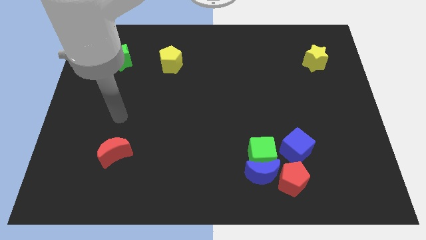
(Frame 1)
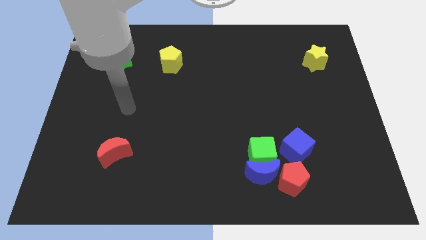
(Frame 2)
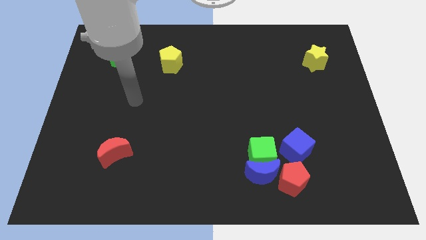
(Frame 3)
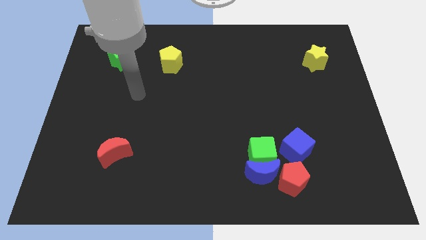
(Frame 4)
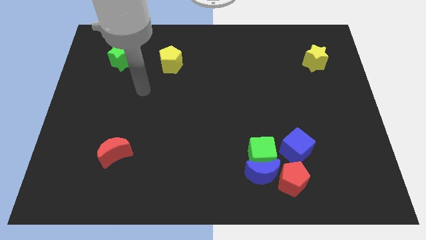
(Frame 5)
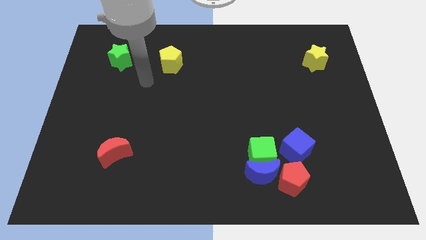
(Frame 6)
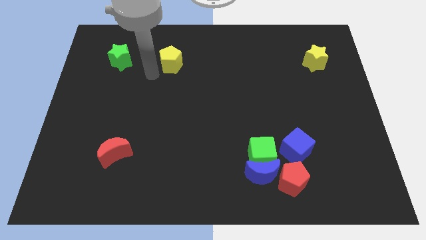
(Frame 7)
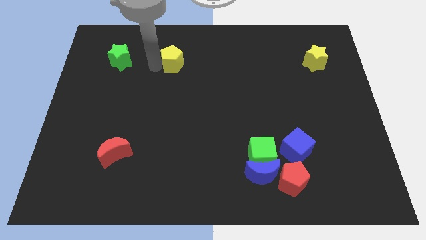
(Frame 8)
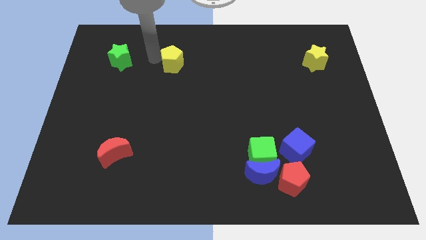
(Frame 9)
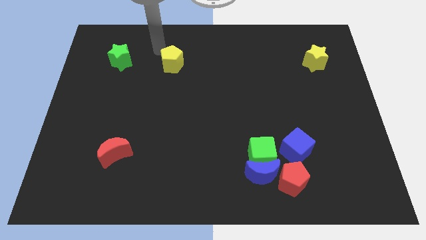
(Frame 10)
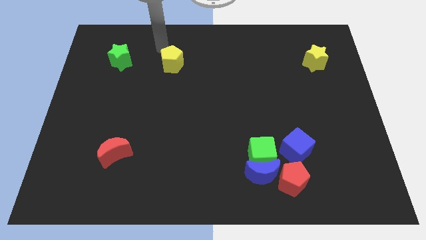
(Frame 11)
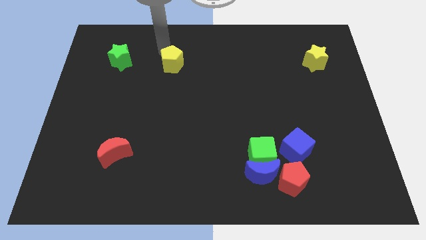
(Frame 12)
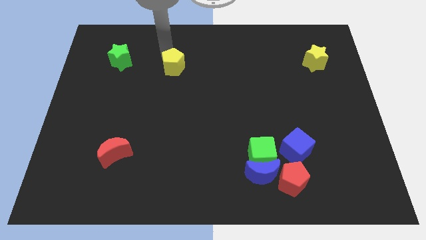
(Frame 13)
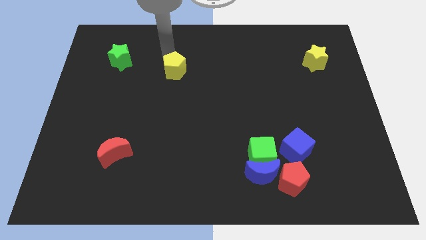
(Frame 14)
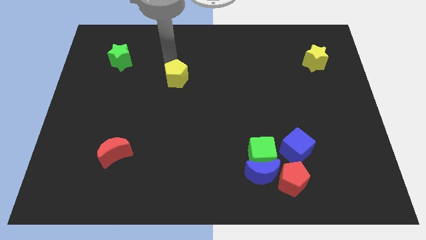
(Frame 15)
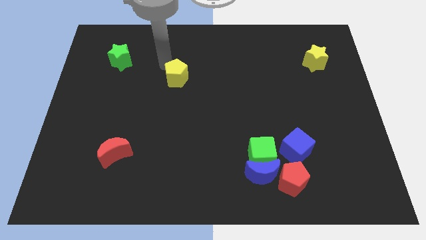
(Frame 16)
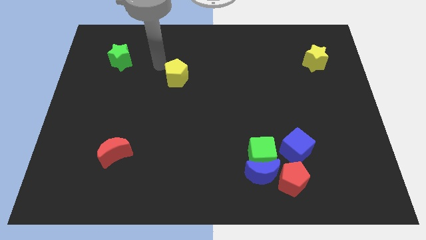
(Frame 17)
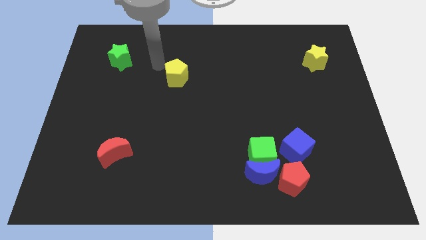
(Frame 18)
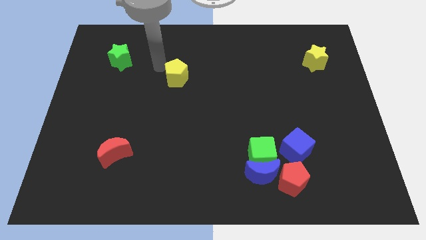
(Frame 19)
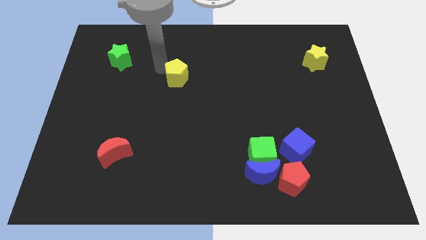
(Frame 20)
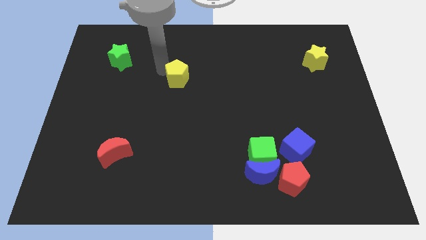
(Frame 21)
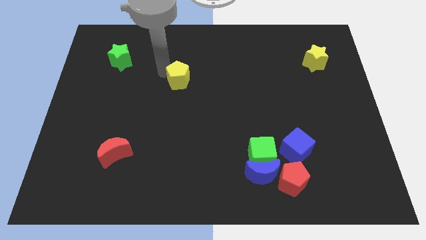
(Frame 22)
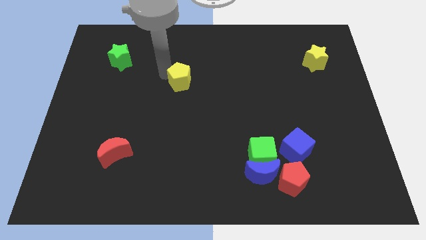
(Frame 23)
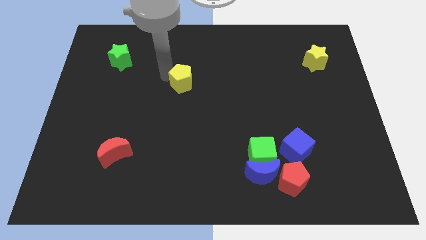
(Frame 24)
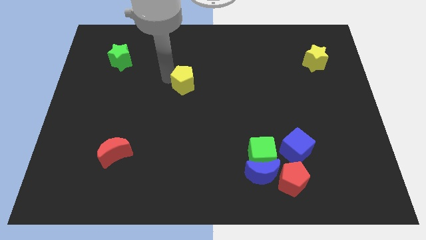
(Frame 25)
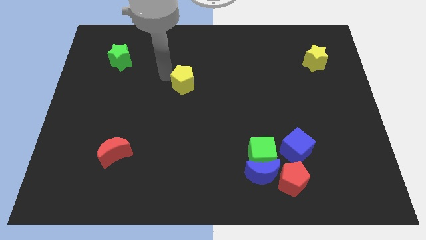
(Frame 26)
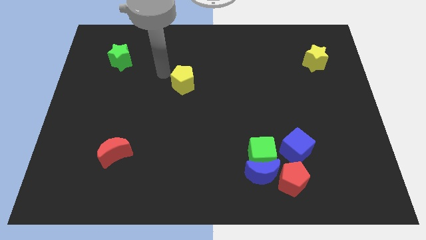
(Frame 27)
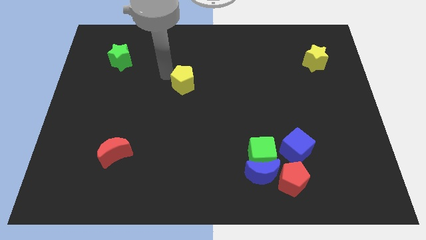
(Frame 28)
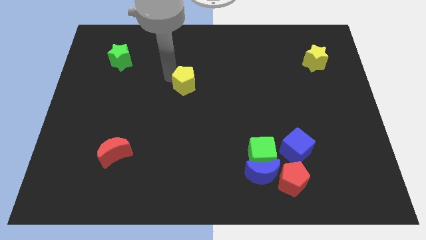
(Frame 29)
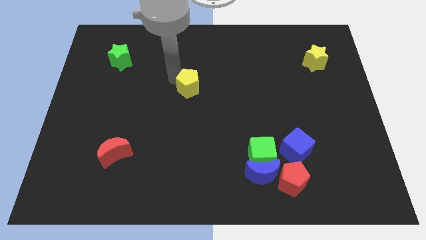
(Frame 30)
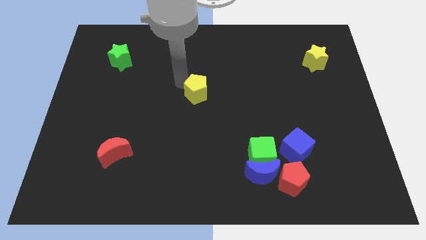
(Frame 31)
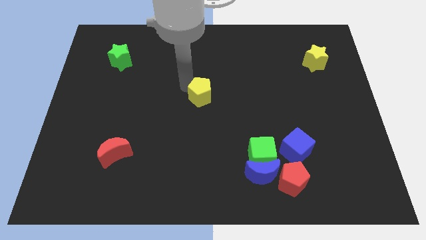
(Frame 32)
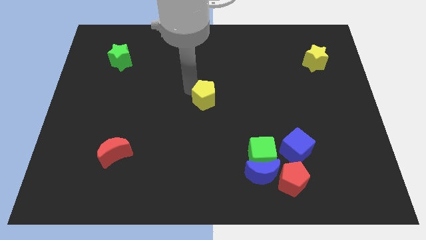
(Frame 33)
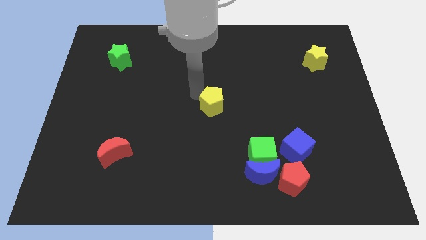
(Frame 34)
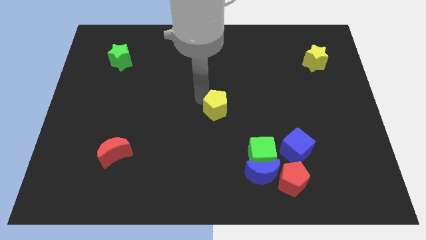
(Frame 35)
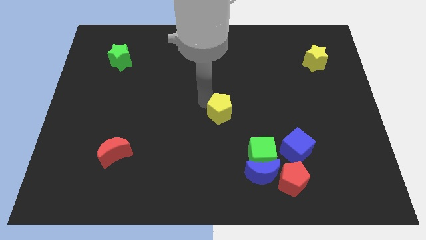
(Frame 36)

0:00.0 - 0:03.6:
move the yellow pentagon diagonally down and right

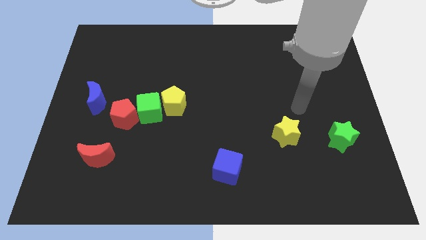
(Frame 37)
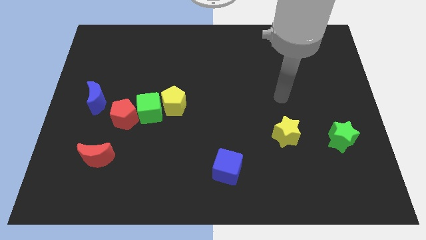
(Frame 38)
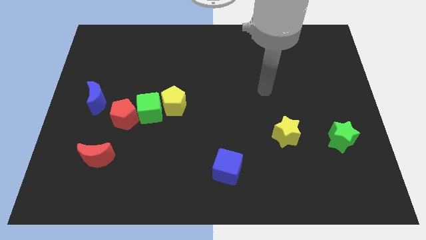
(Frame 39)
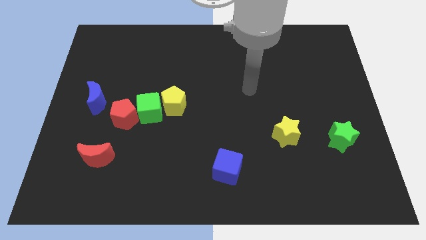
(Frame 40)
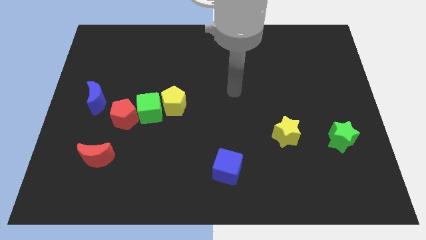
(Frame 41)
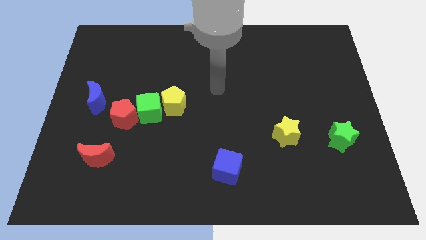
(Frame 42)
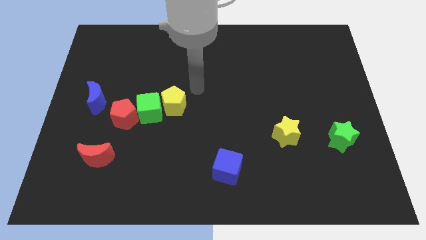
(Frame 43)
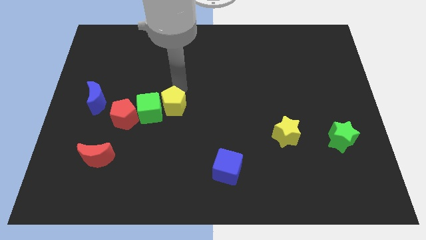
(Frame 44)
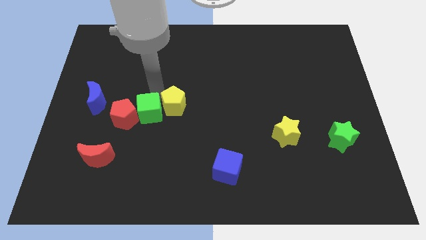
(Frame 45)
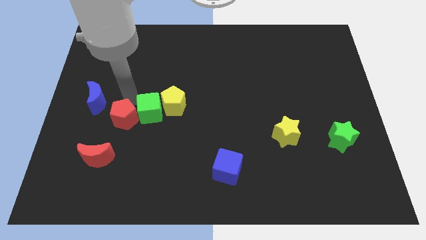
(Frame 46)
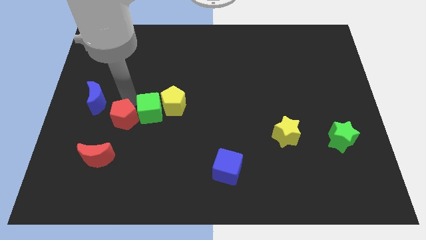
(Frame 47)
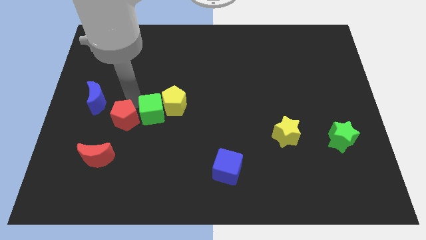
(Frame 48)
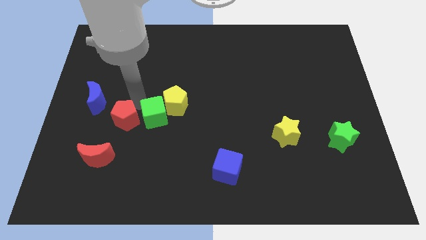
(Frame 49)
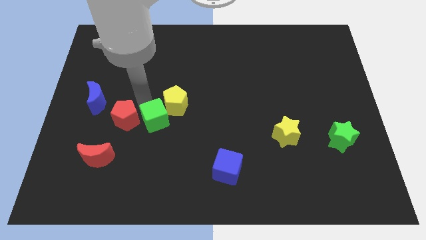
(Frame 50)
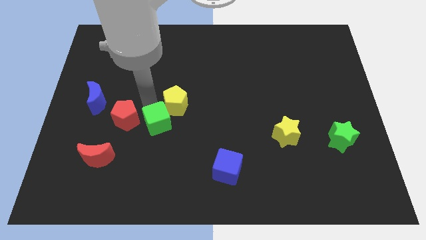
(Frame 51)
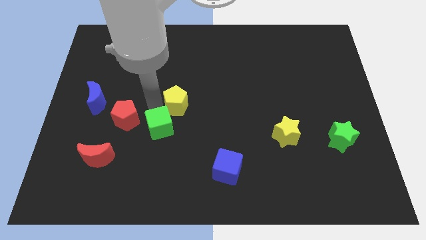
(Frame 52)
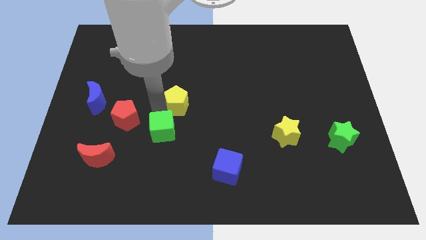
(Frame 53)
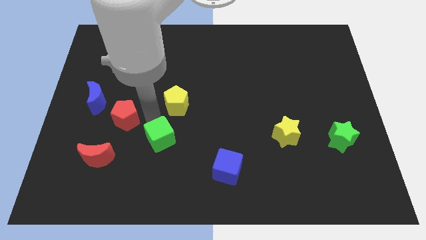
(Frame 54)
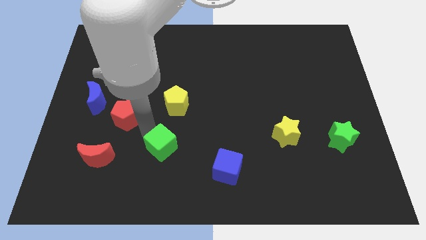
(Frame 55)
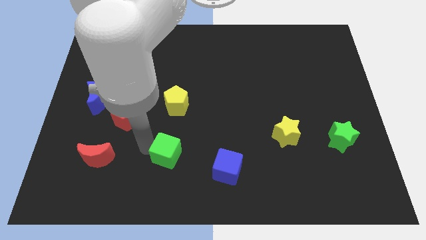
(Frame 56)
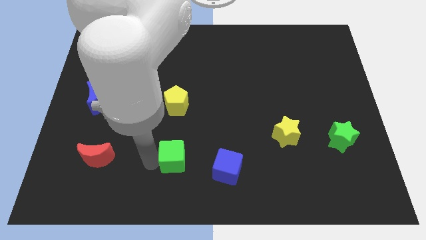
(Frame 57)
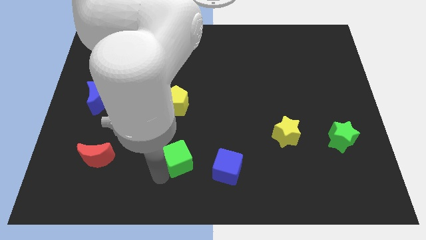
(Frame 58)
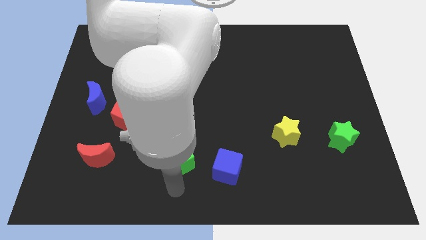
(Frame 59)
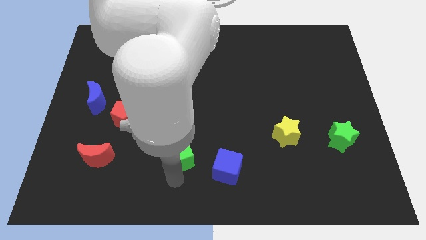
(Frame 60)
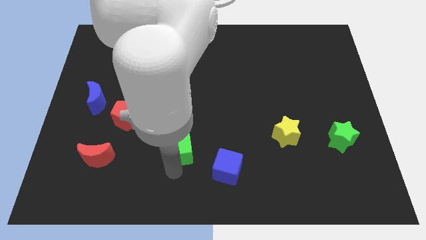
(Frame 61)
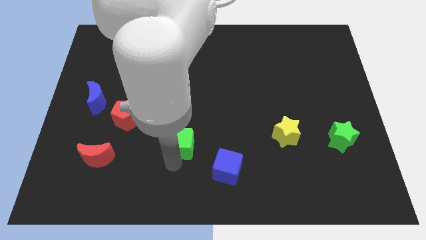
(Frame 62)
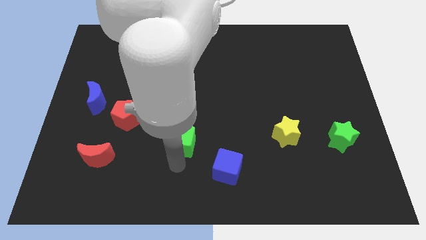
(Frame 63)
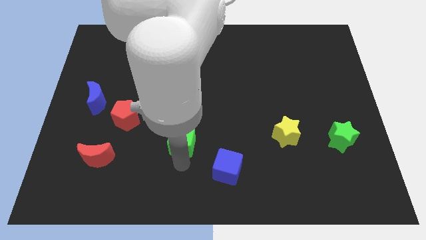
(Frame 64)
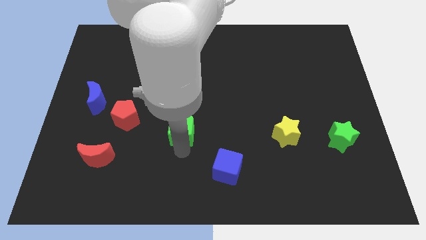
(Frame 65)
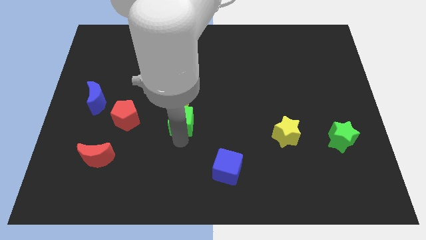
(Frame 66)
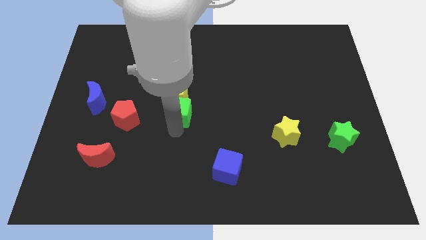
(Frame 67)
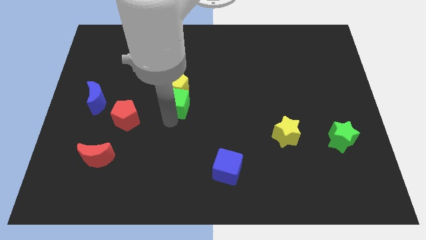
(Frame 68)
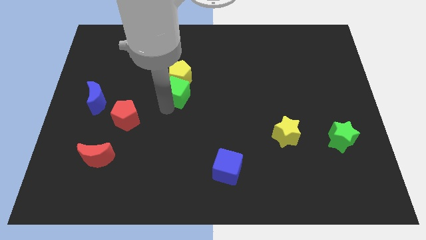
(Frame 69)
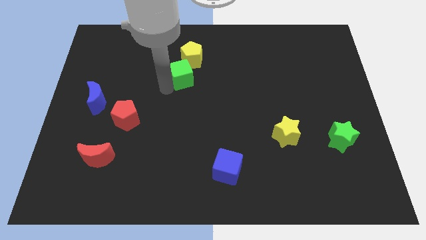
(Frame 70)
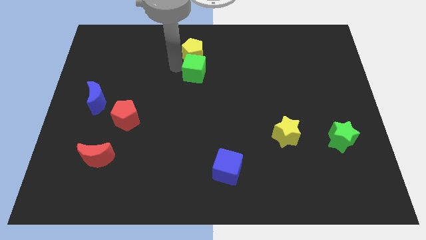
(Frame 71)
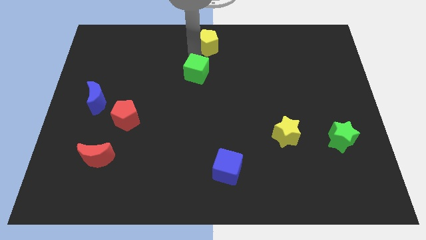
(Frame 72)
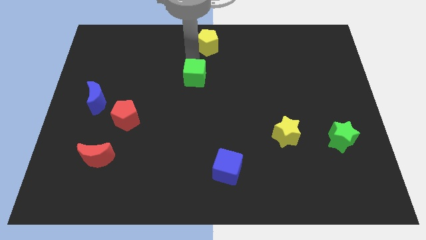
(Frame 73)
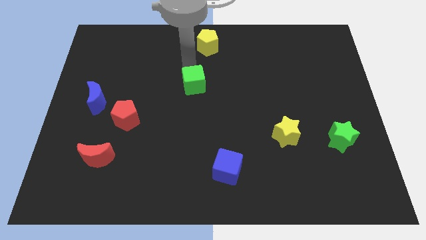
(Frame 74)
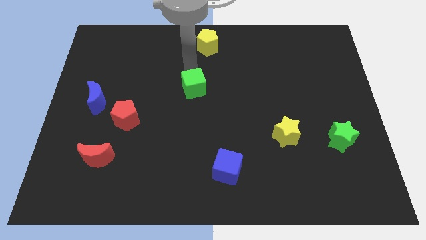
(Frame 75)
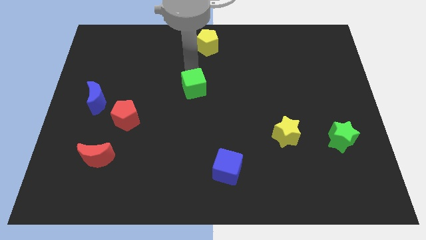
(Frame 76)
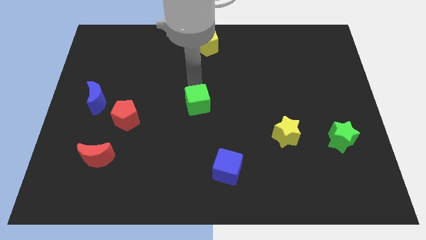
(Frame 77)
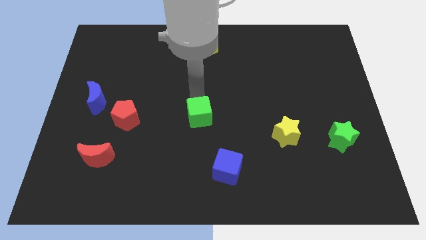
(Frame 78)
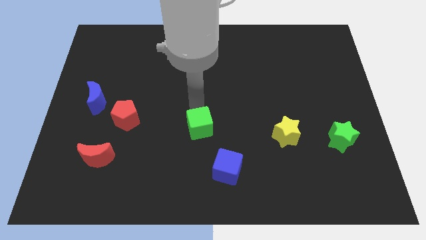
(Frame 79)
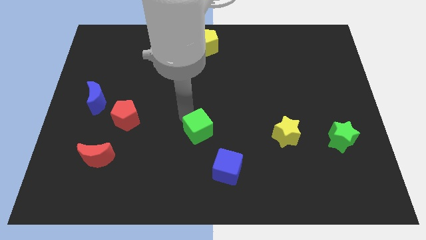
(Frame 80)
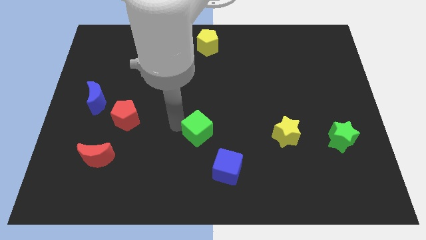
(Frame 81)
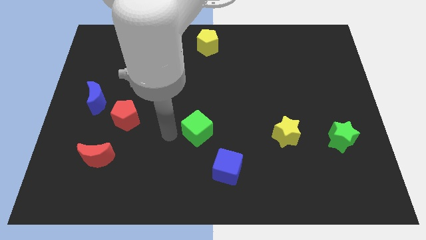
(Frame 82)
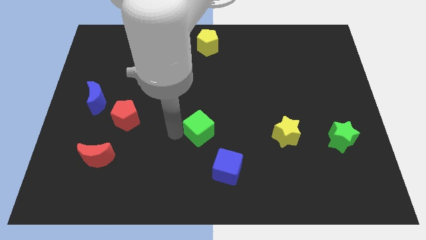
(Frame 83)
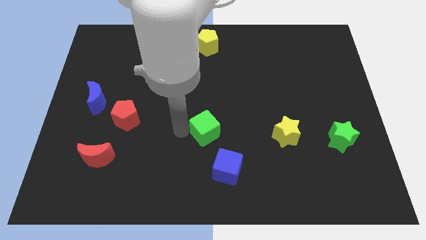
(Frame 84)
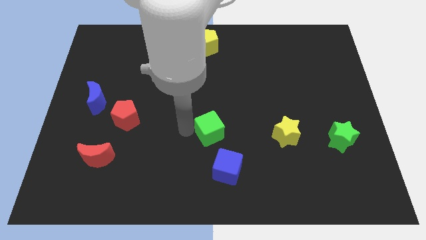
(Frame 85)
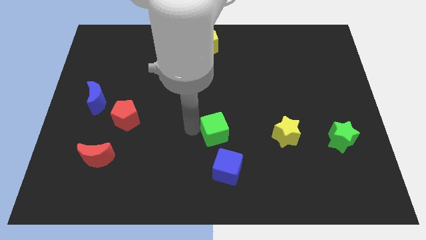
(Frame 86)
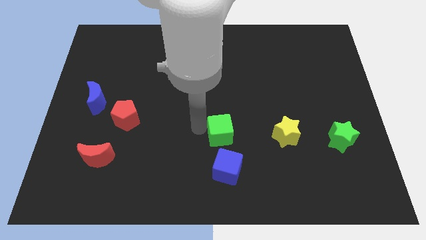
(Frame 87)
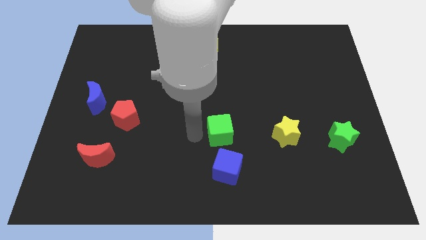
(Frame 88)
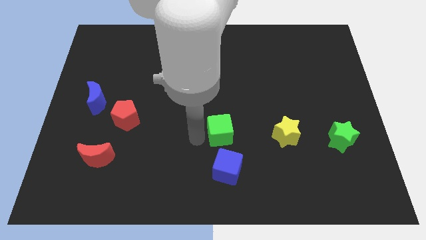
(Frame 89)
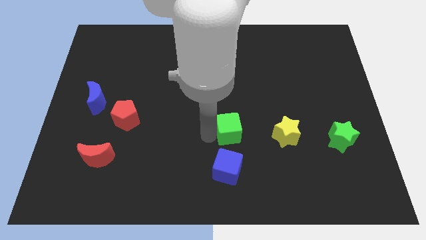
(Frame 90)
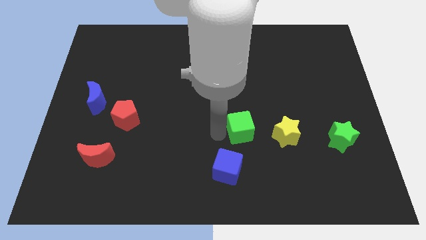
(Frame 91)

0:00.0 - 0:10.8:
slide the green cube right
